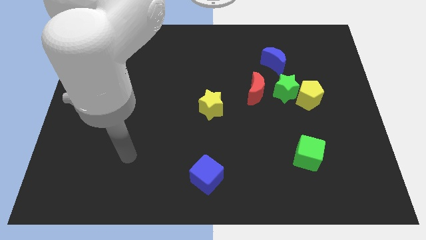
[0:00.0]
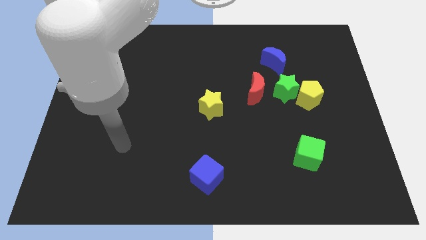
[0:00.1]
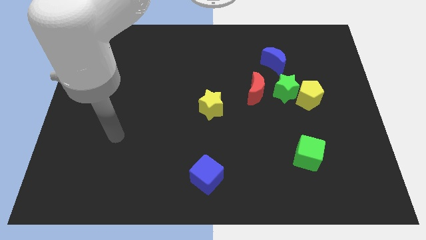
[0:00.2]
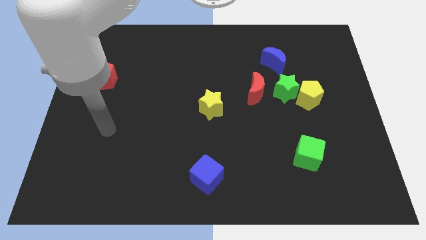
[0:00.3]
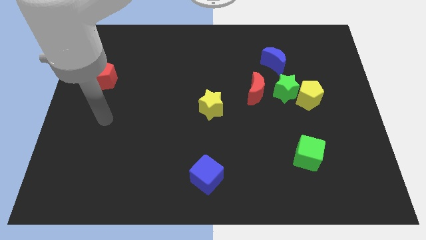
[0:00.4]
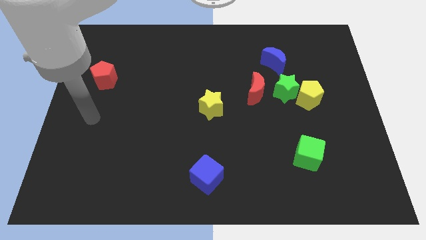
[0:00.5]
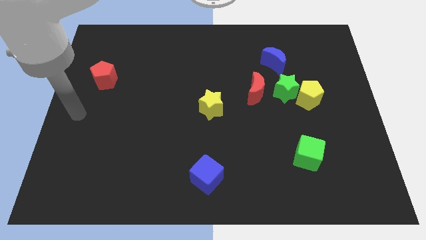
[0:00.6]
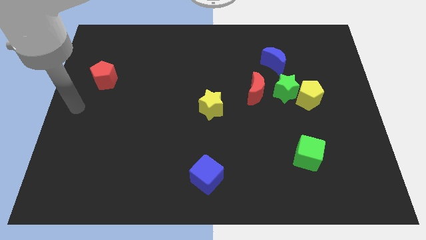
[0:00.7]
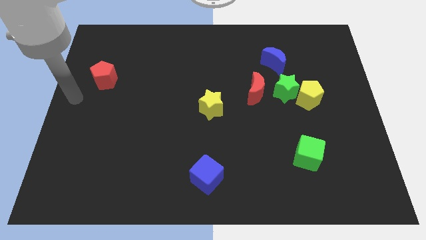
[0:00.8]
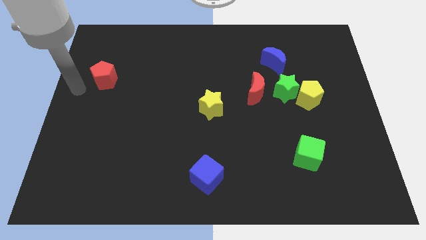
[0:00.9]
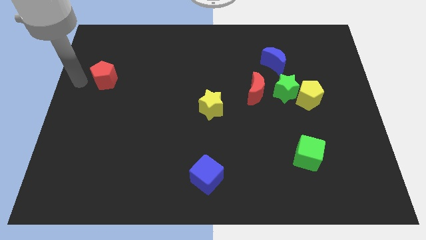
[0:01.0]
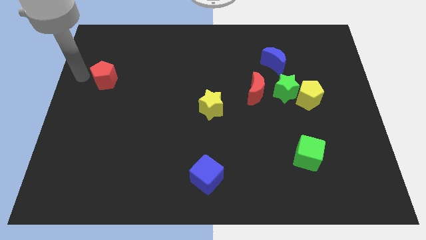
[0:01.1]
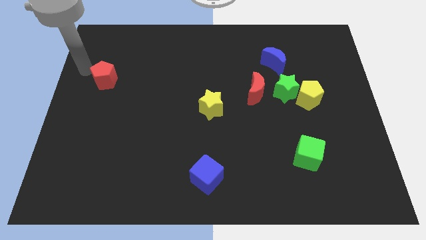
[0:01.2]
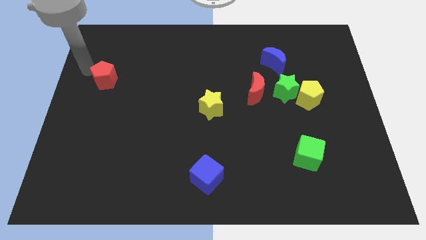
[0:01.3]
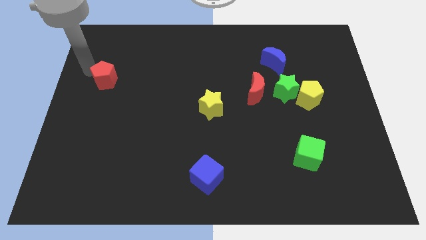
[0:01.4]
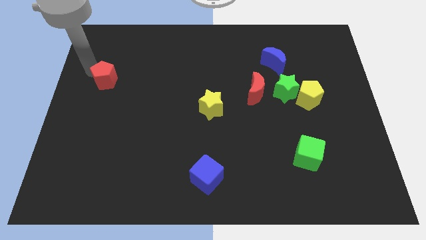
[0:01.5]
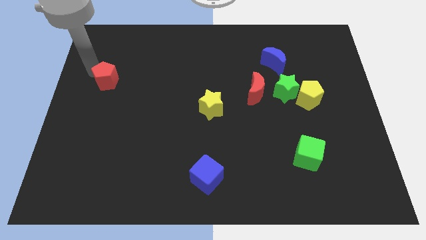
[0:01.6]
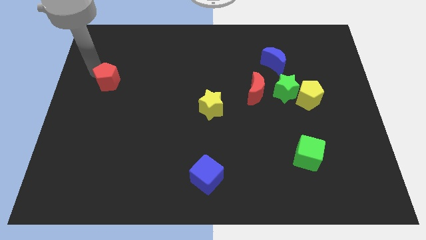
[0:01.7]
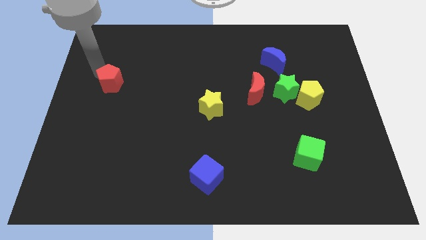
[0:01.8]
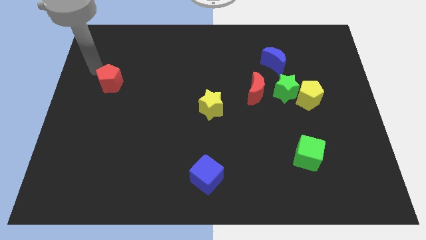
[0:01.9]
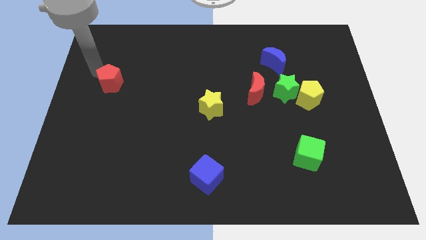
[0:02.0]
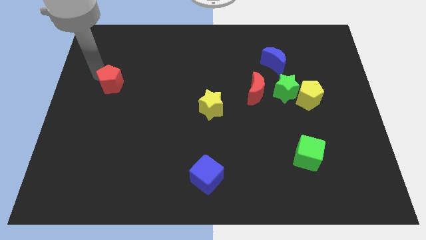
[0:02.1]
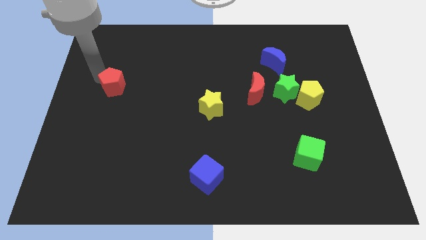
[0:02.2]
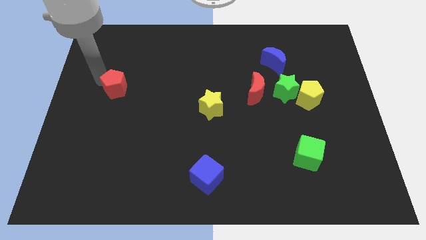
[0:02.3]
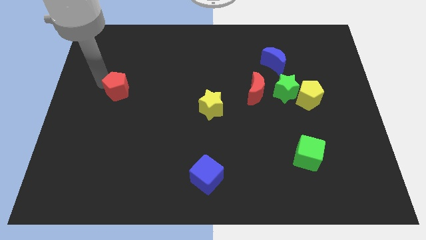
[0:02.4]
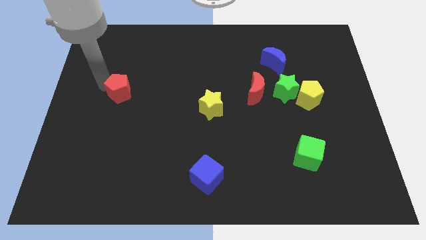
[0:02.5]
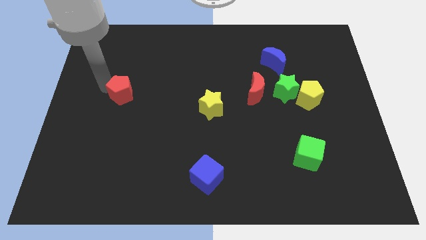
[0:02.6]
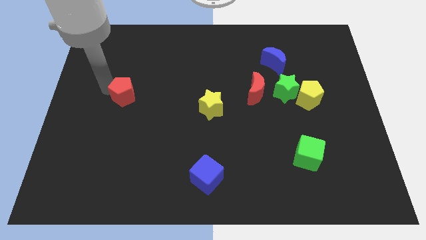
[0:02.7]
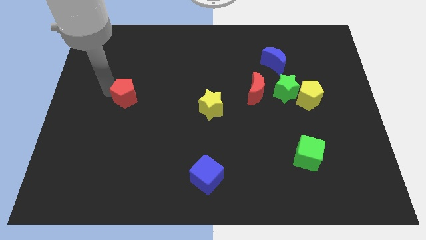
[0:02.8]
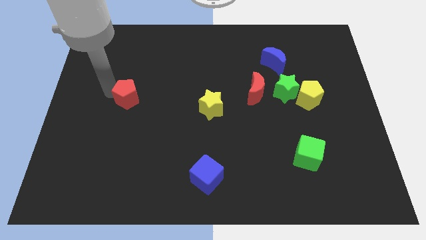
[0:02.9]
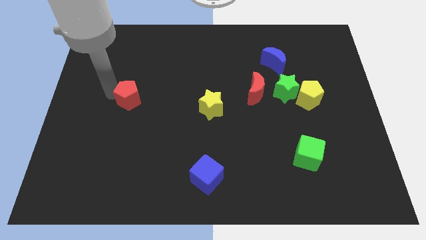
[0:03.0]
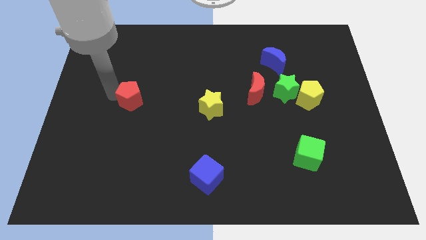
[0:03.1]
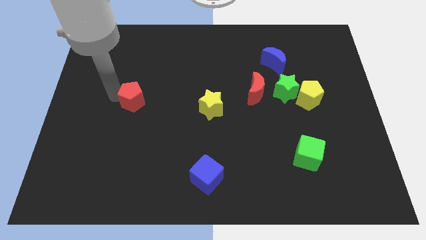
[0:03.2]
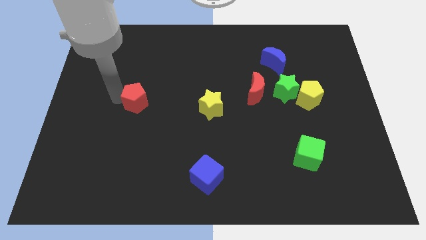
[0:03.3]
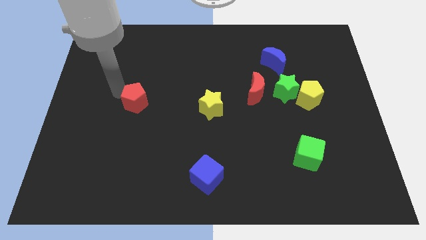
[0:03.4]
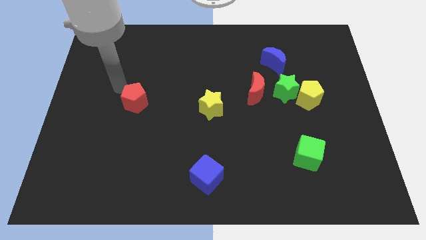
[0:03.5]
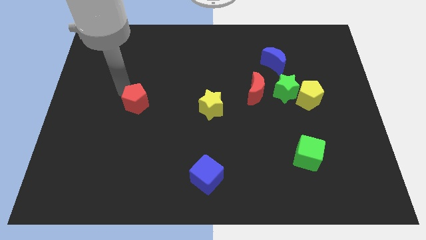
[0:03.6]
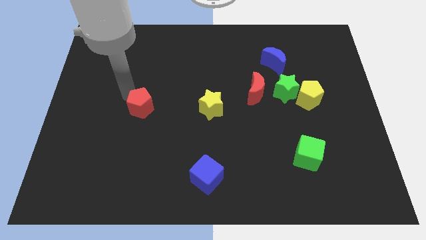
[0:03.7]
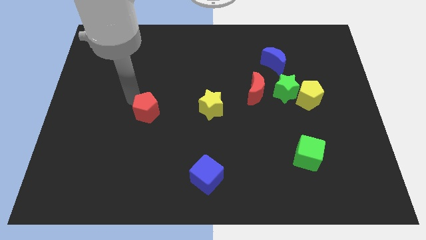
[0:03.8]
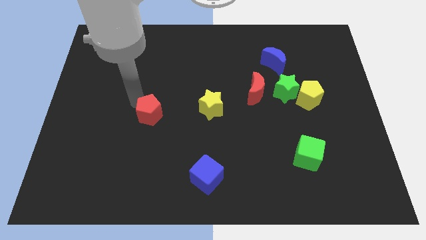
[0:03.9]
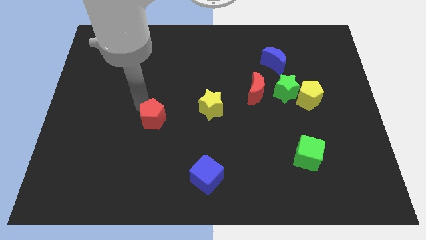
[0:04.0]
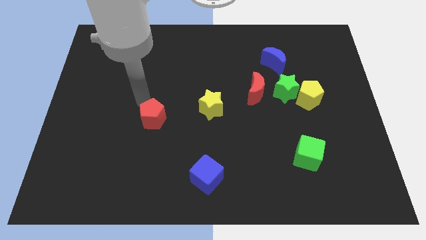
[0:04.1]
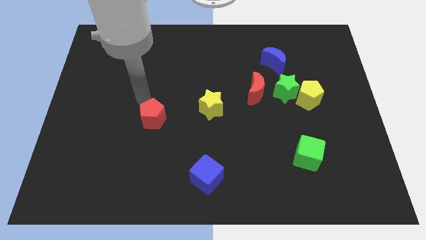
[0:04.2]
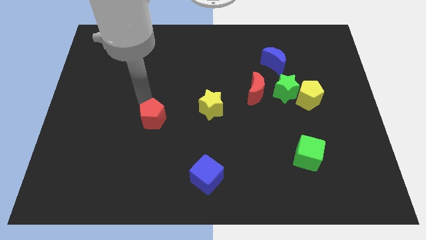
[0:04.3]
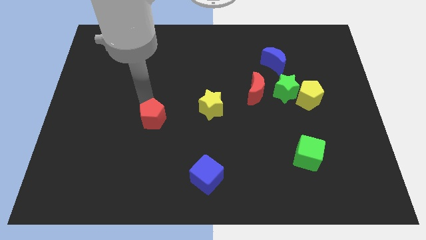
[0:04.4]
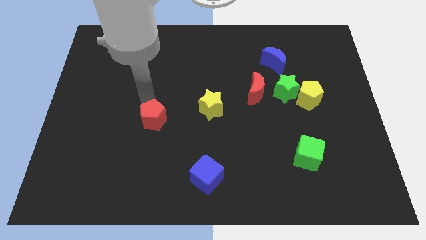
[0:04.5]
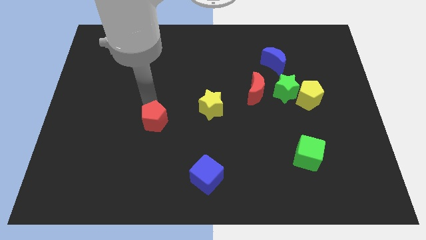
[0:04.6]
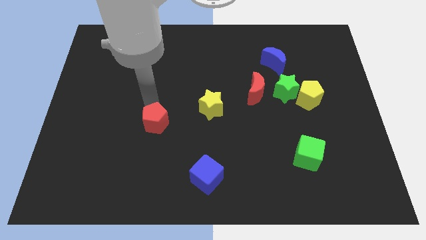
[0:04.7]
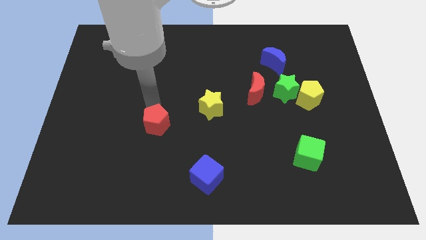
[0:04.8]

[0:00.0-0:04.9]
push the red pentagon down and right diagonally

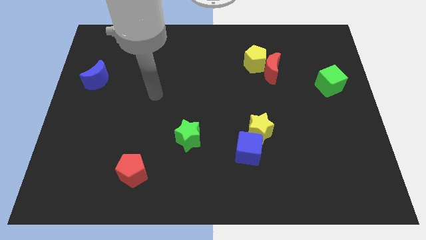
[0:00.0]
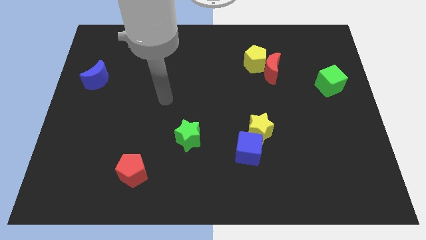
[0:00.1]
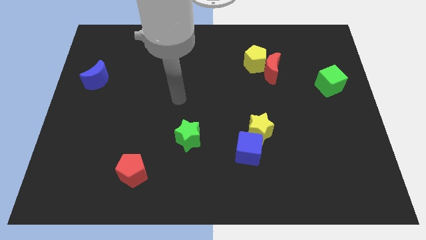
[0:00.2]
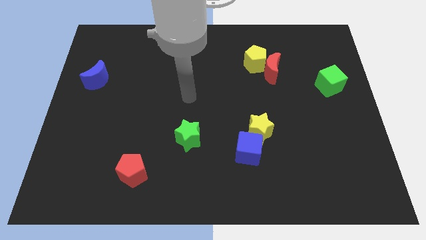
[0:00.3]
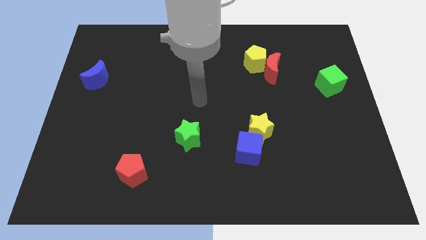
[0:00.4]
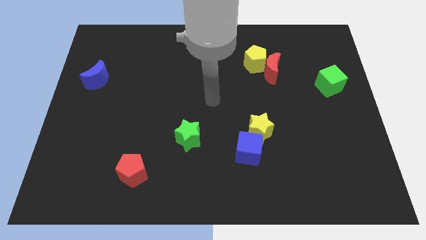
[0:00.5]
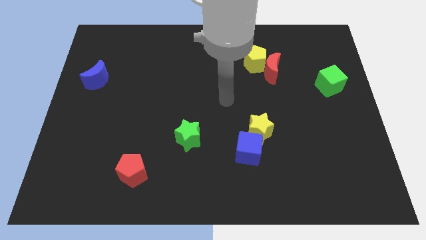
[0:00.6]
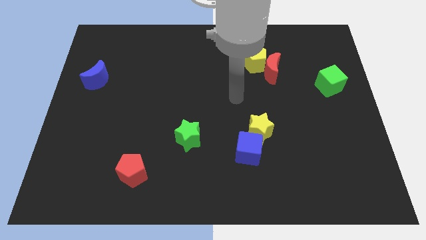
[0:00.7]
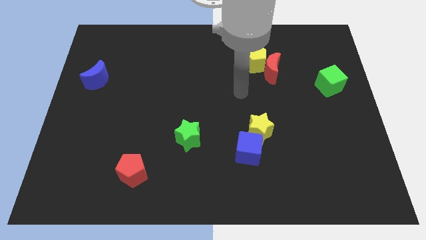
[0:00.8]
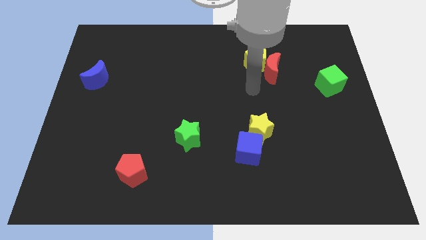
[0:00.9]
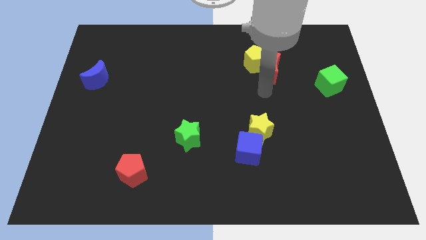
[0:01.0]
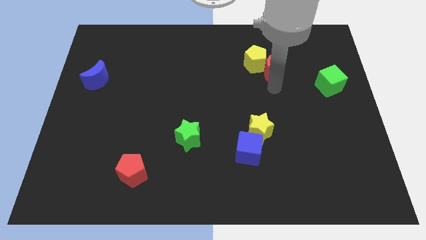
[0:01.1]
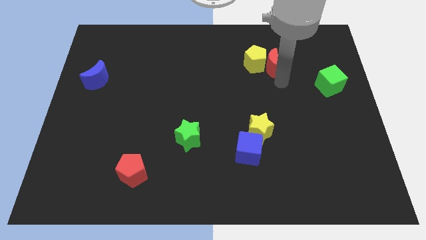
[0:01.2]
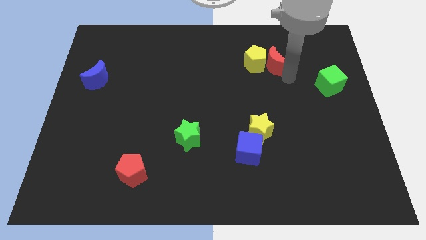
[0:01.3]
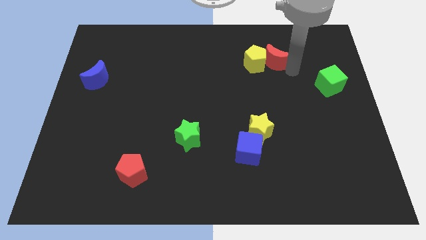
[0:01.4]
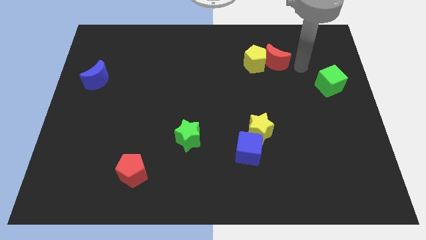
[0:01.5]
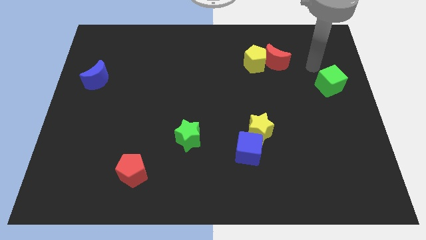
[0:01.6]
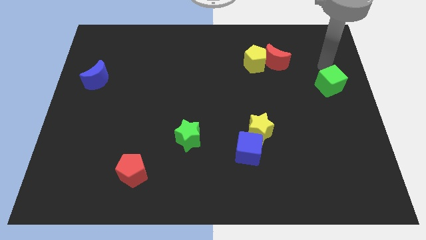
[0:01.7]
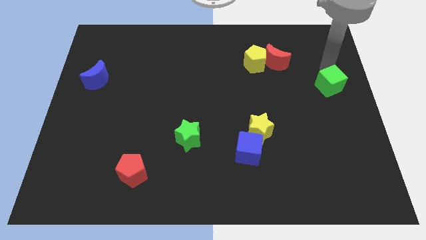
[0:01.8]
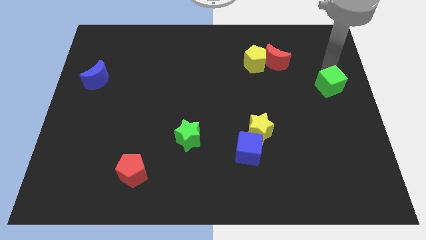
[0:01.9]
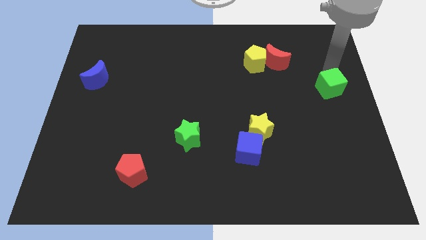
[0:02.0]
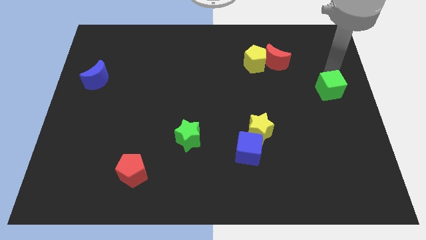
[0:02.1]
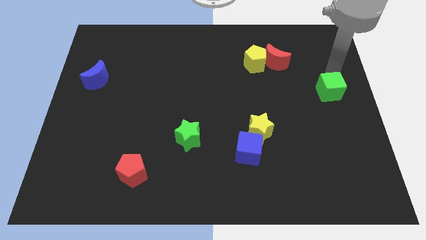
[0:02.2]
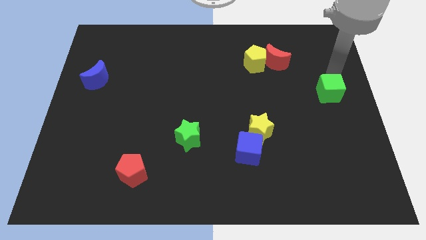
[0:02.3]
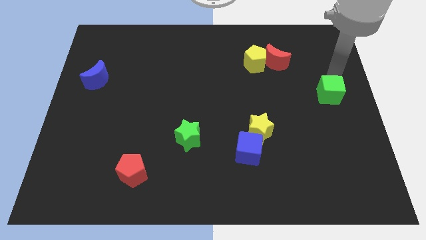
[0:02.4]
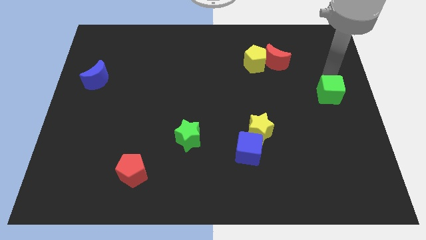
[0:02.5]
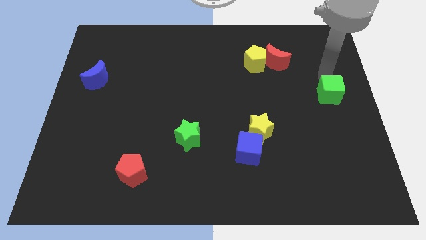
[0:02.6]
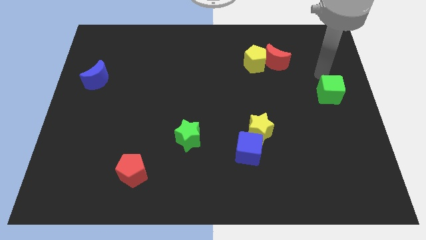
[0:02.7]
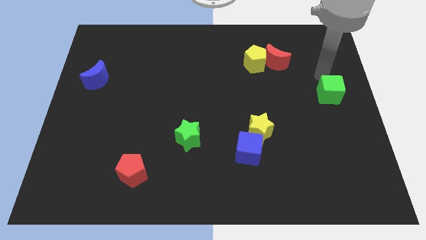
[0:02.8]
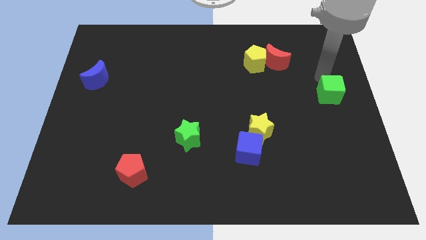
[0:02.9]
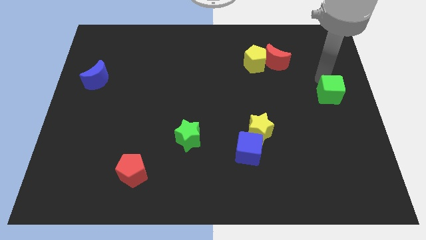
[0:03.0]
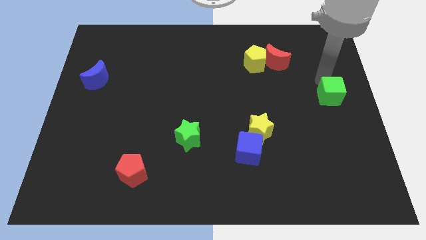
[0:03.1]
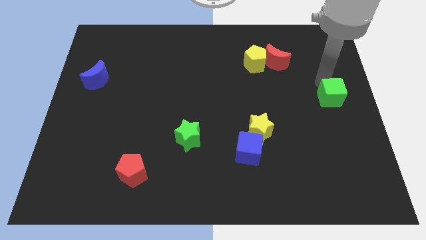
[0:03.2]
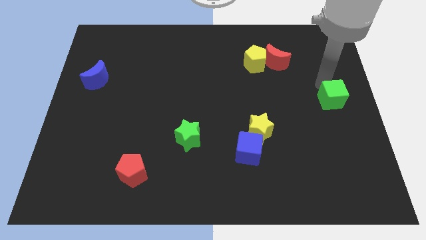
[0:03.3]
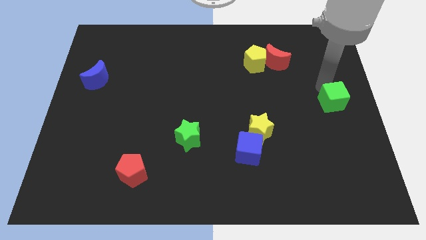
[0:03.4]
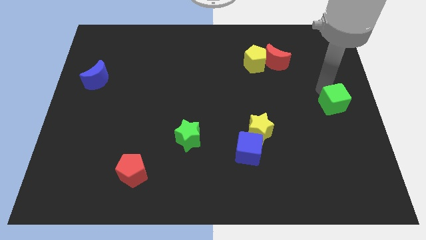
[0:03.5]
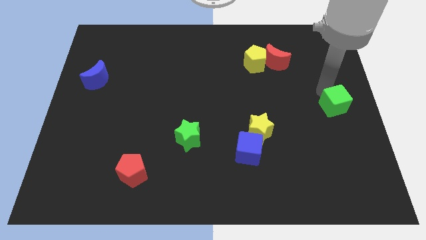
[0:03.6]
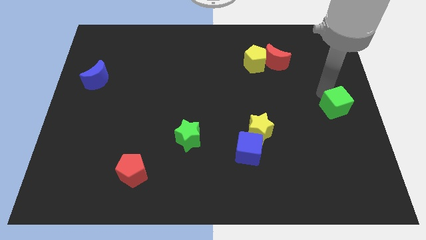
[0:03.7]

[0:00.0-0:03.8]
move the green cube somewhat down
